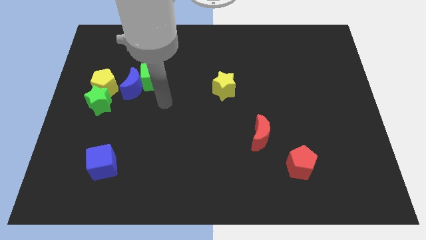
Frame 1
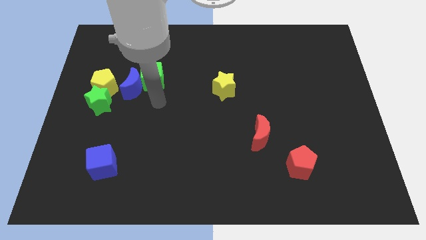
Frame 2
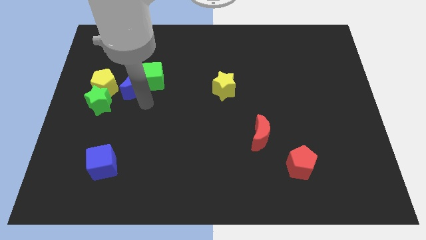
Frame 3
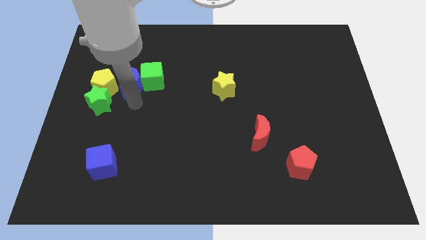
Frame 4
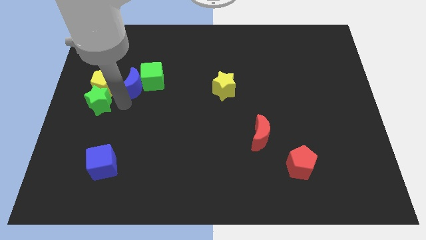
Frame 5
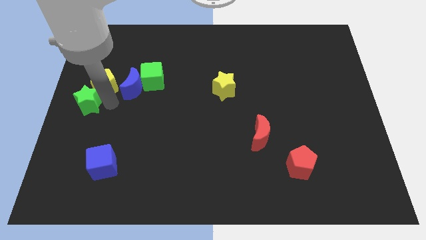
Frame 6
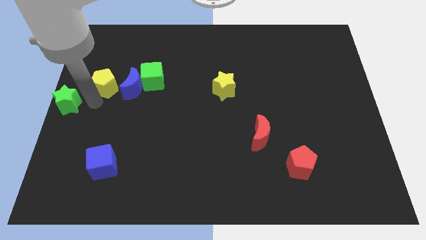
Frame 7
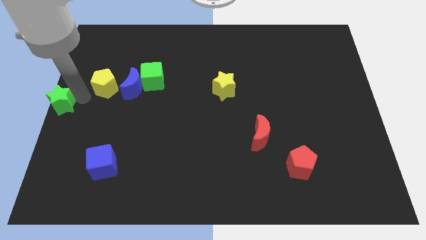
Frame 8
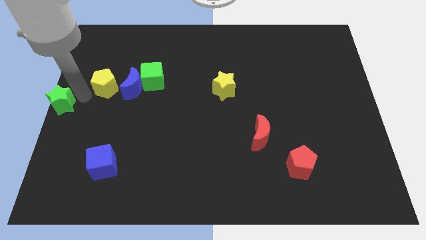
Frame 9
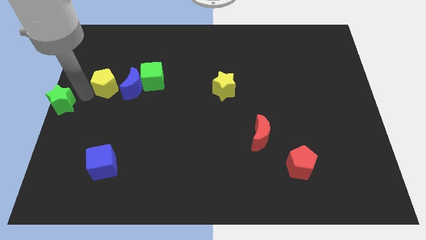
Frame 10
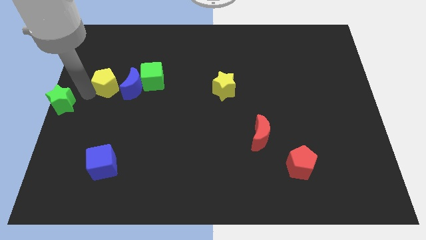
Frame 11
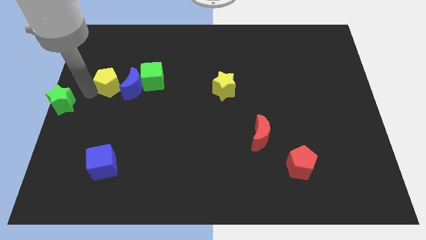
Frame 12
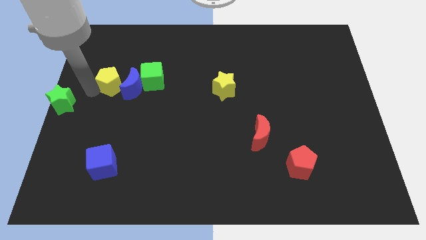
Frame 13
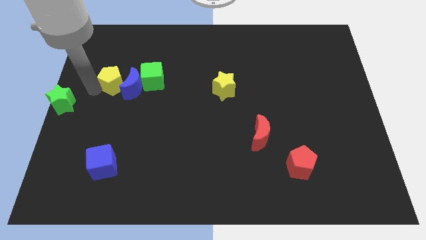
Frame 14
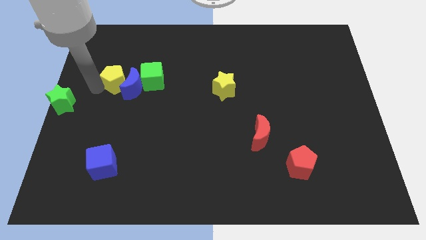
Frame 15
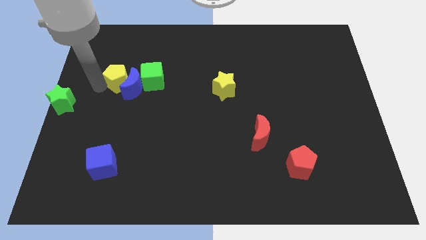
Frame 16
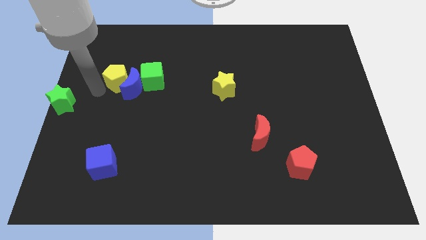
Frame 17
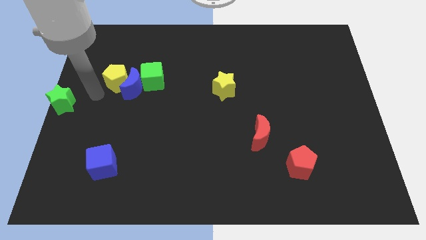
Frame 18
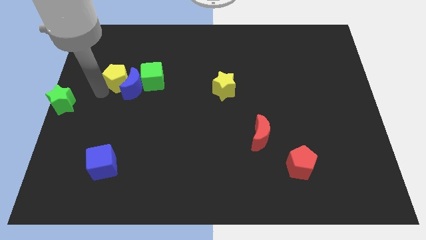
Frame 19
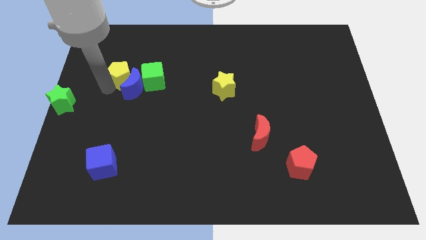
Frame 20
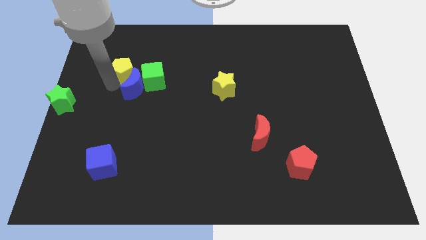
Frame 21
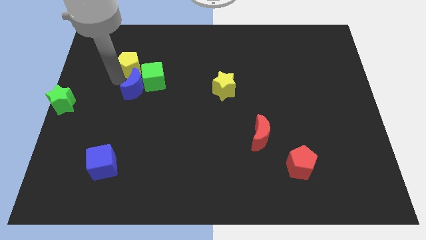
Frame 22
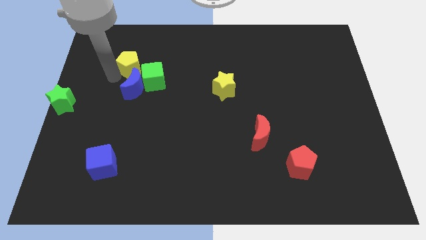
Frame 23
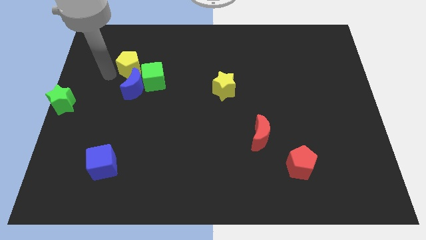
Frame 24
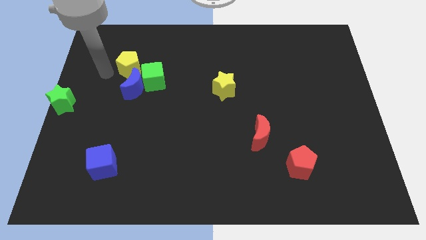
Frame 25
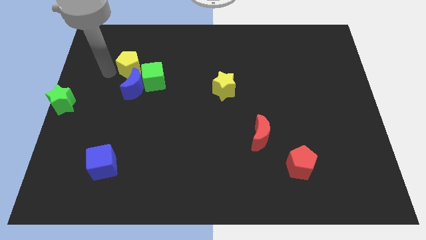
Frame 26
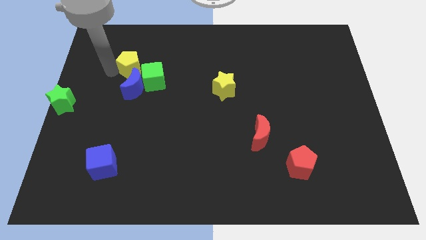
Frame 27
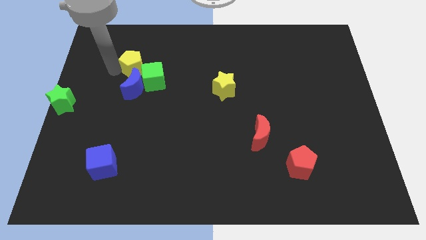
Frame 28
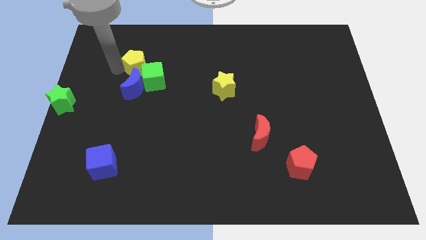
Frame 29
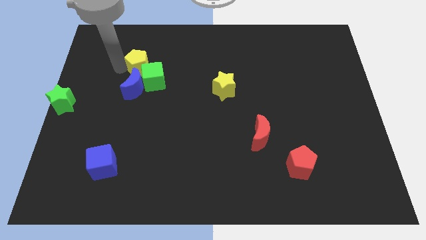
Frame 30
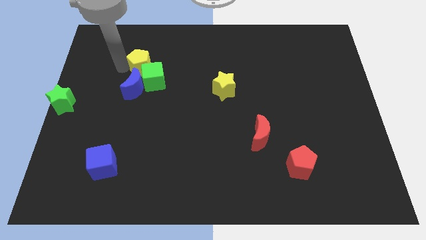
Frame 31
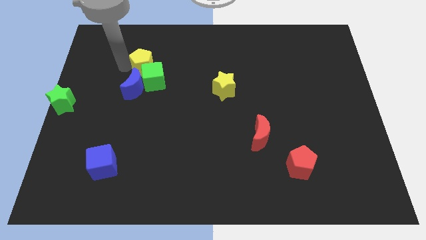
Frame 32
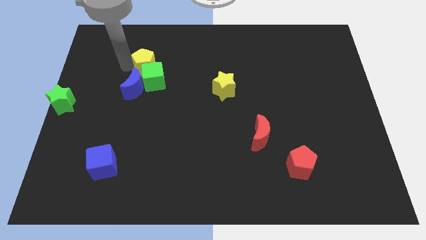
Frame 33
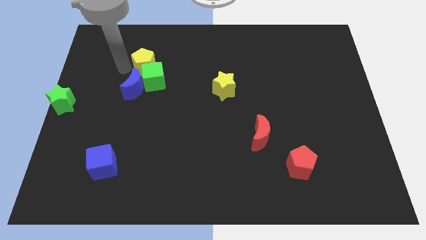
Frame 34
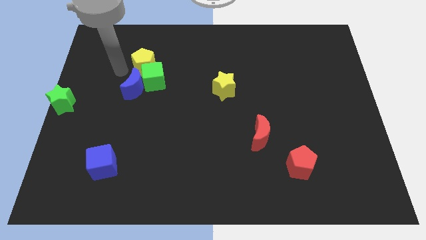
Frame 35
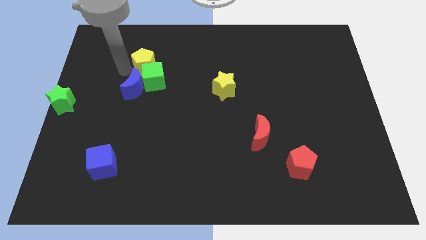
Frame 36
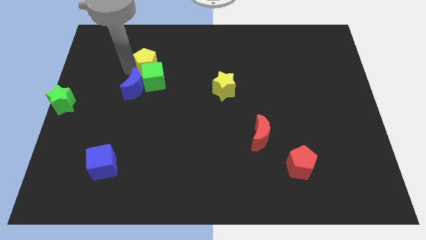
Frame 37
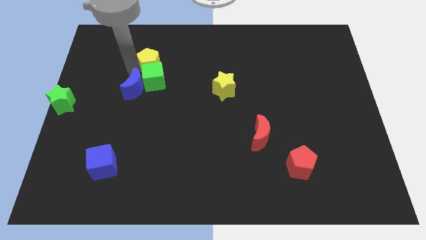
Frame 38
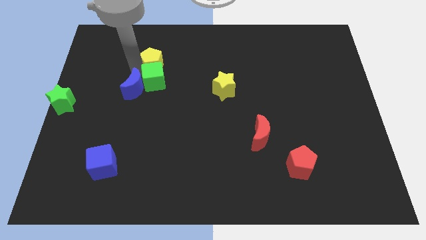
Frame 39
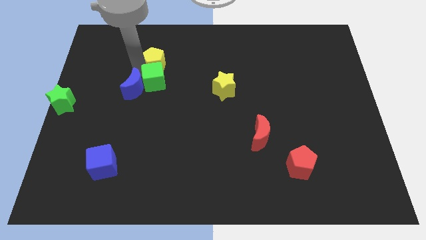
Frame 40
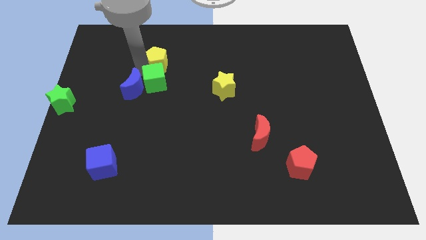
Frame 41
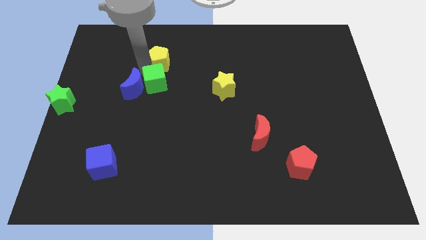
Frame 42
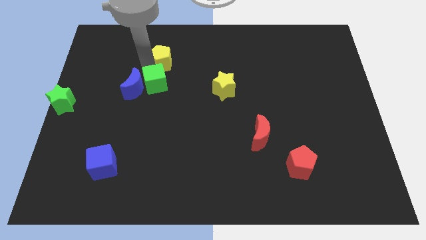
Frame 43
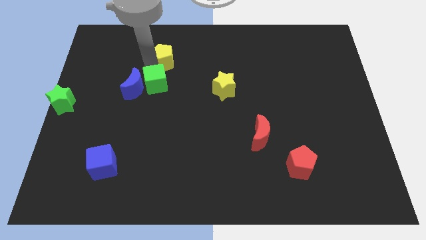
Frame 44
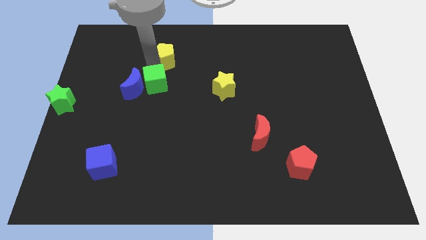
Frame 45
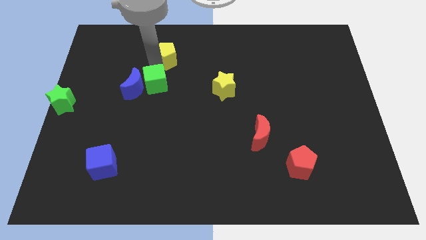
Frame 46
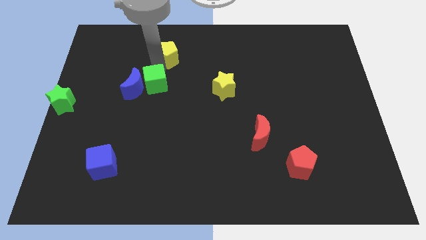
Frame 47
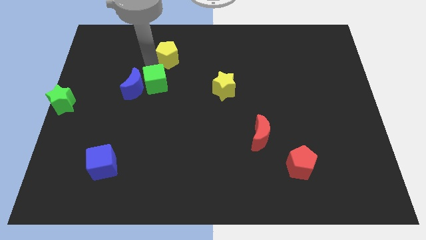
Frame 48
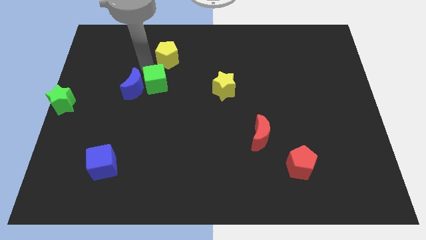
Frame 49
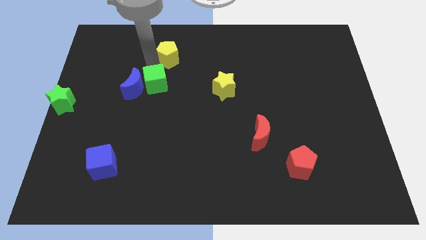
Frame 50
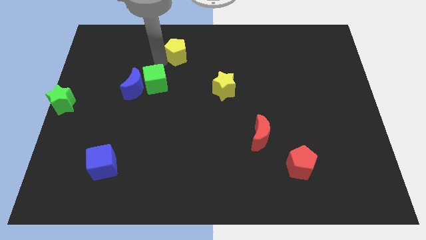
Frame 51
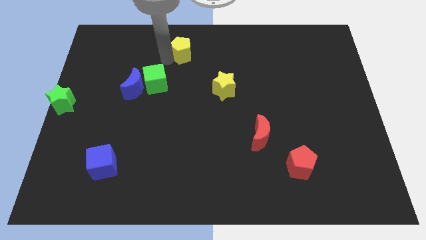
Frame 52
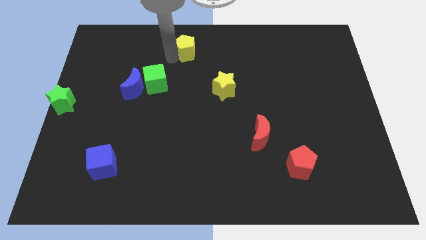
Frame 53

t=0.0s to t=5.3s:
push the yellow pentagon to the top
